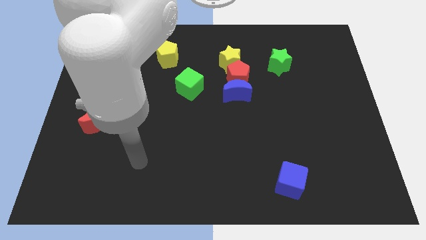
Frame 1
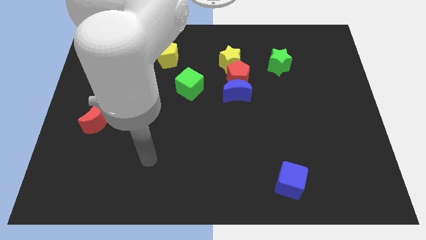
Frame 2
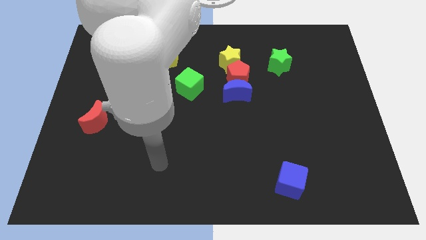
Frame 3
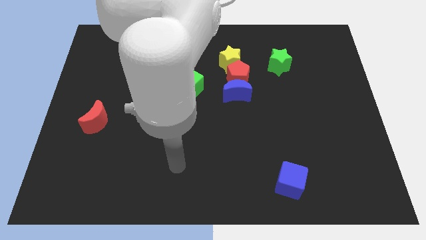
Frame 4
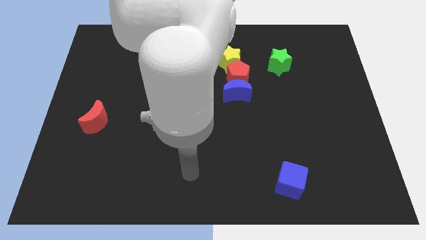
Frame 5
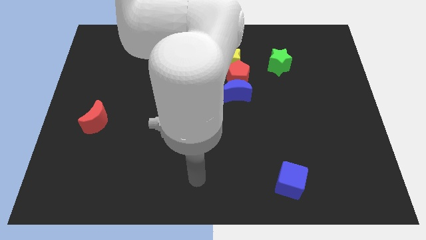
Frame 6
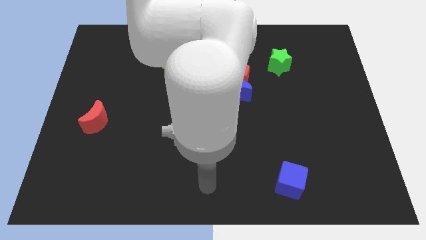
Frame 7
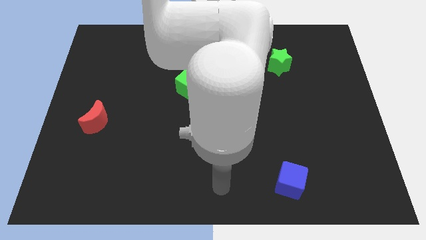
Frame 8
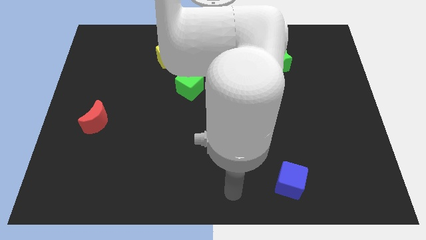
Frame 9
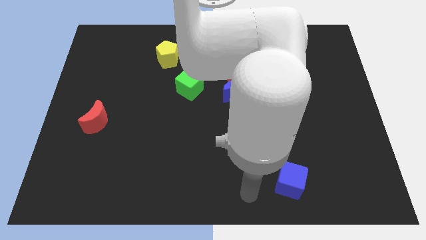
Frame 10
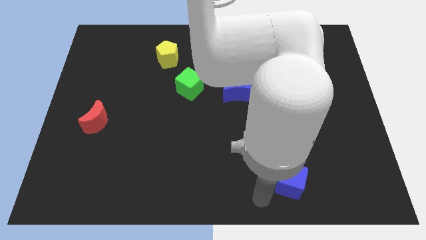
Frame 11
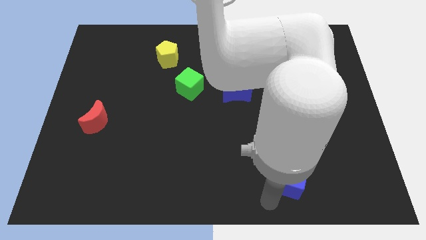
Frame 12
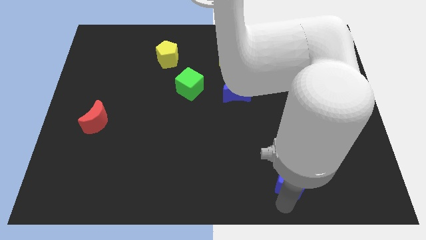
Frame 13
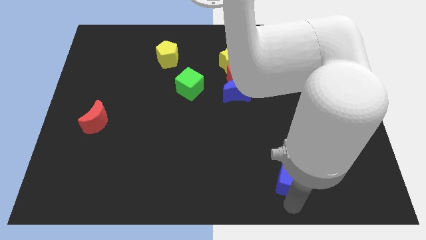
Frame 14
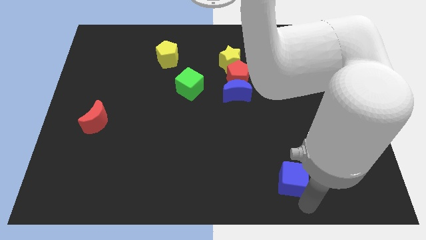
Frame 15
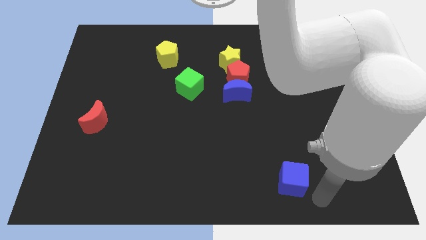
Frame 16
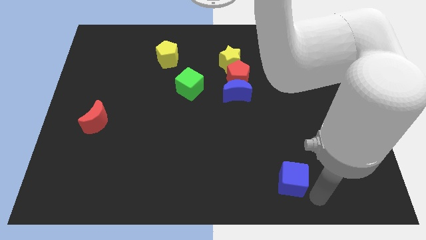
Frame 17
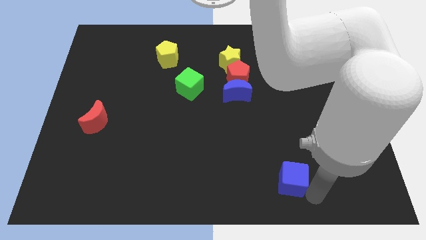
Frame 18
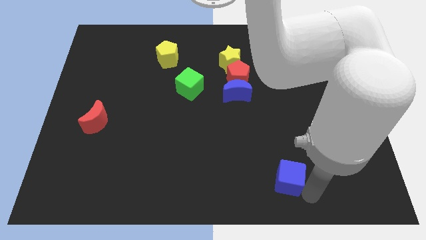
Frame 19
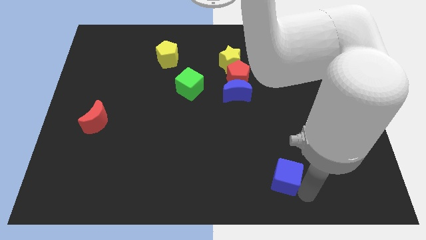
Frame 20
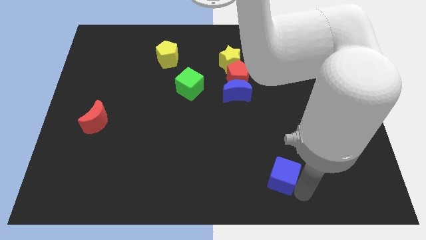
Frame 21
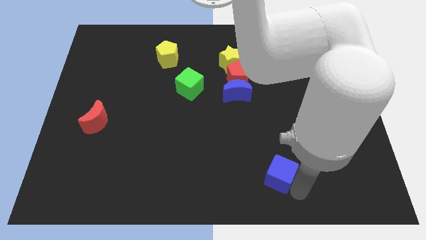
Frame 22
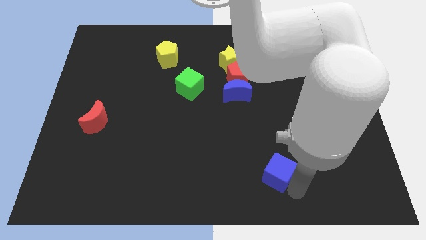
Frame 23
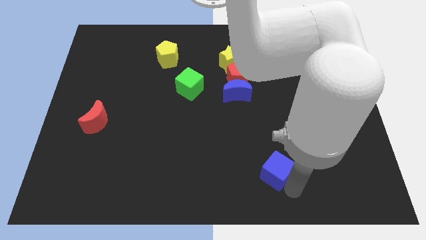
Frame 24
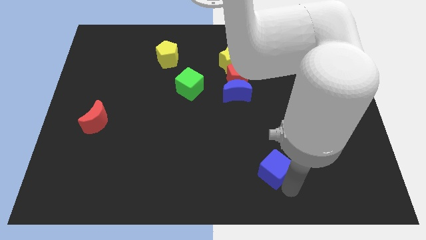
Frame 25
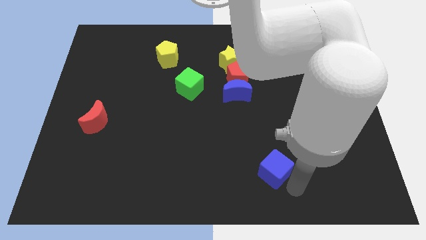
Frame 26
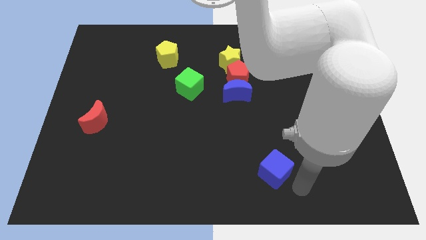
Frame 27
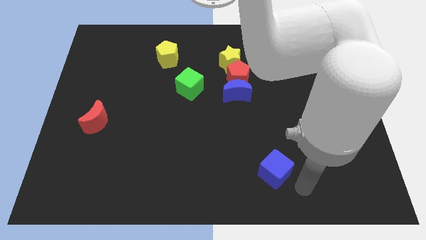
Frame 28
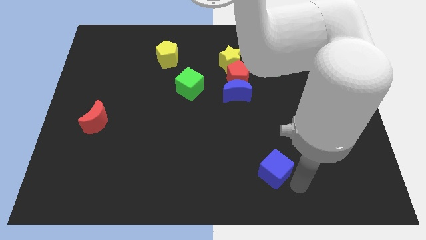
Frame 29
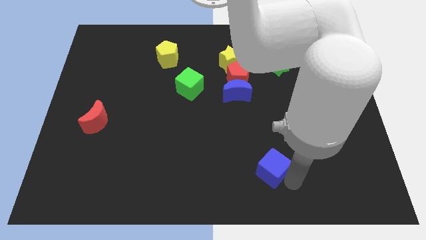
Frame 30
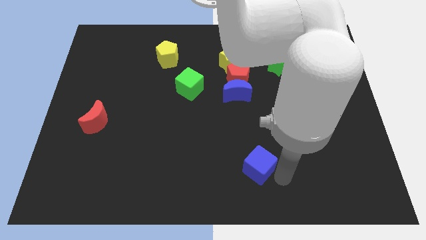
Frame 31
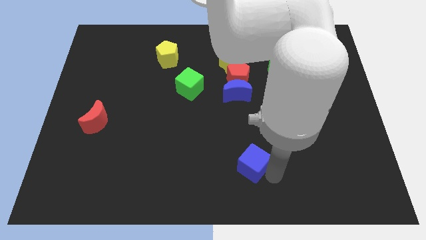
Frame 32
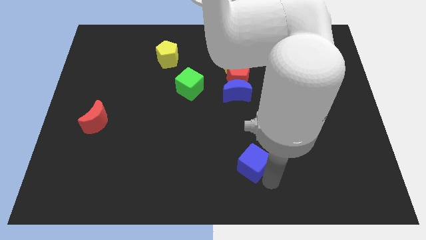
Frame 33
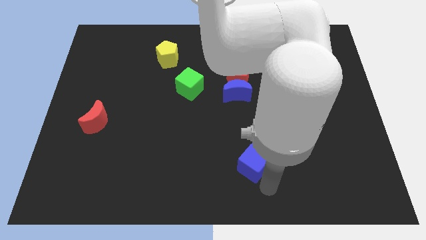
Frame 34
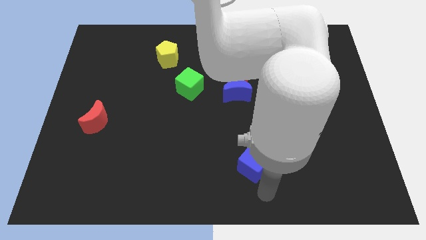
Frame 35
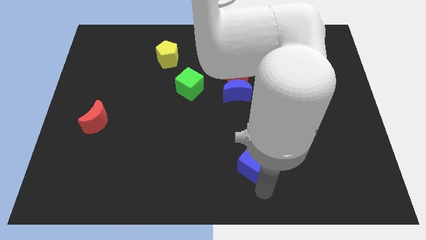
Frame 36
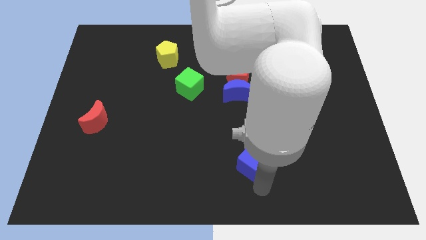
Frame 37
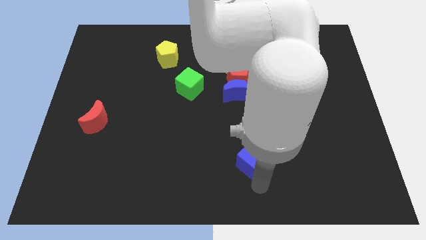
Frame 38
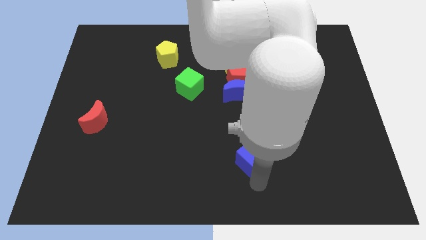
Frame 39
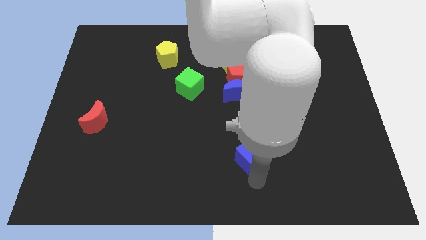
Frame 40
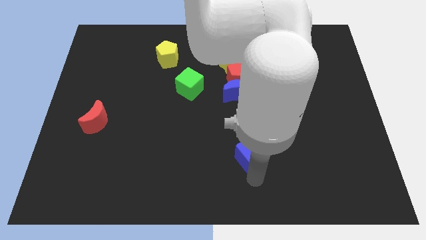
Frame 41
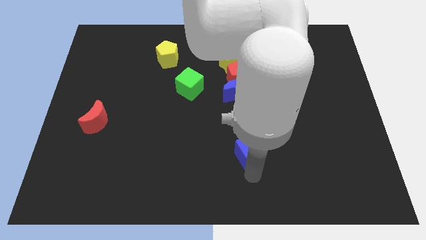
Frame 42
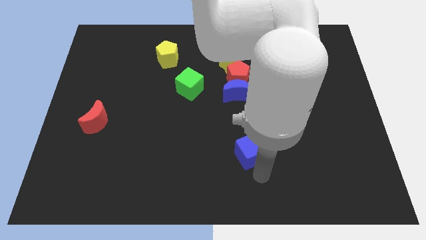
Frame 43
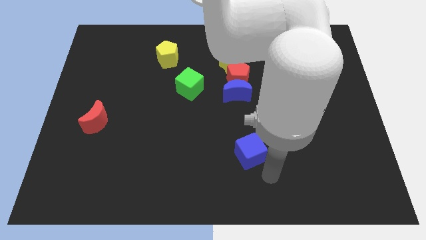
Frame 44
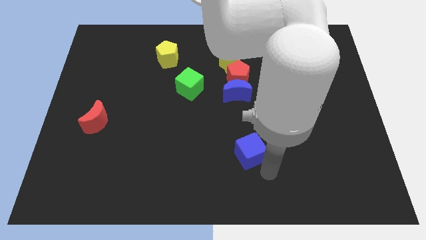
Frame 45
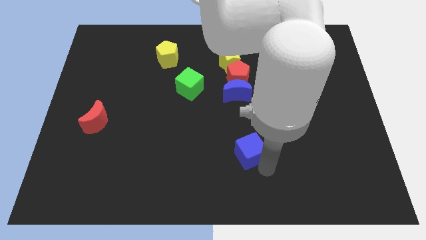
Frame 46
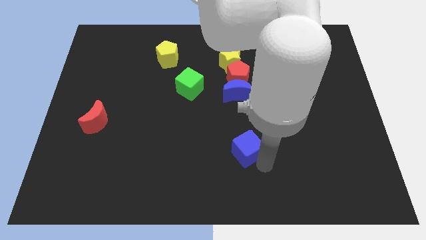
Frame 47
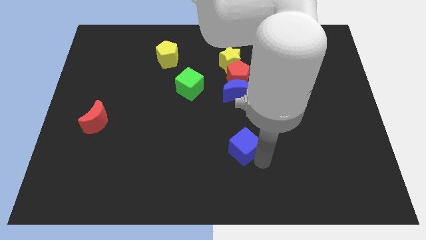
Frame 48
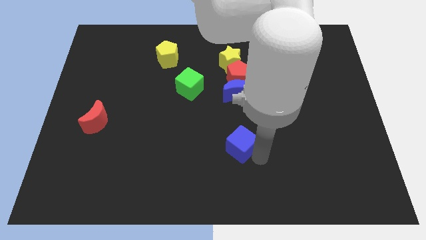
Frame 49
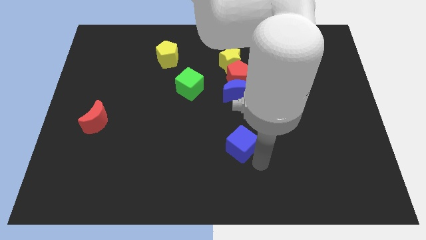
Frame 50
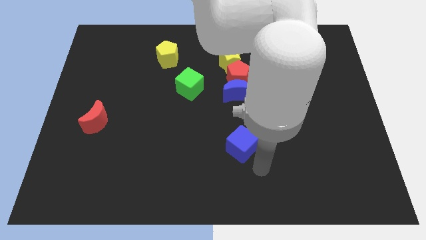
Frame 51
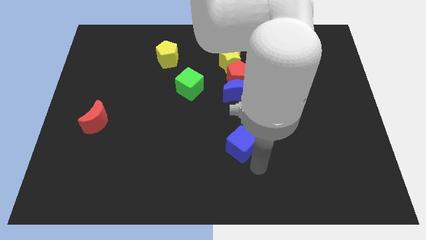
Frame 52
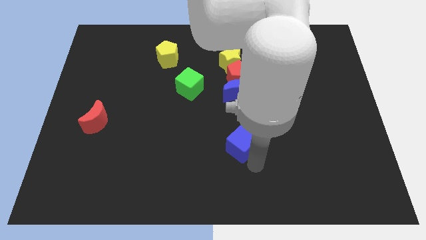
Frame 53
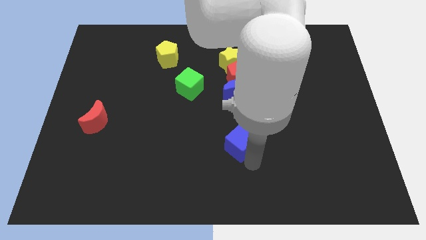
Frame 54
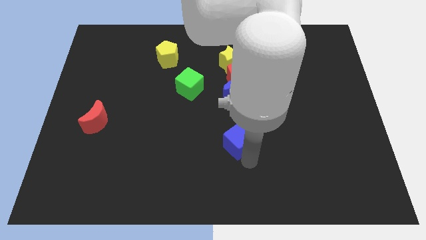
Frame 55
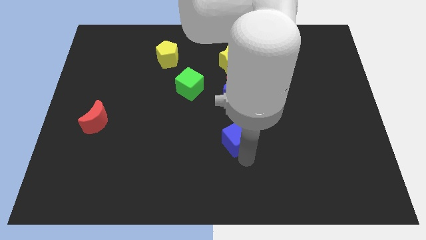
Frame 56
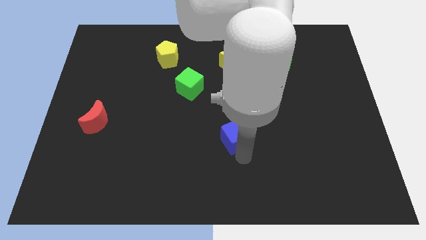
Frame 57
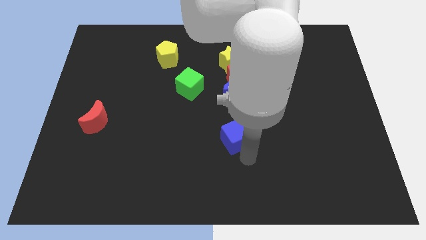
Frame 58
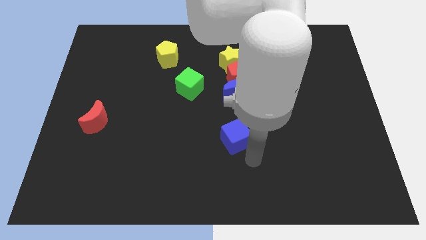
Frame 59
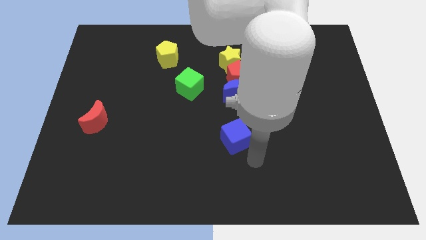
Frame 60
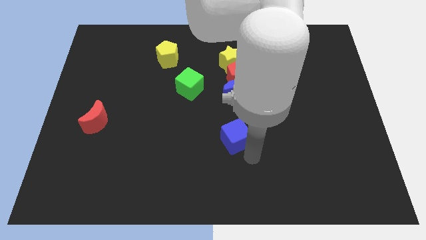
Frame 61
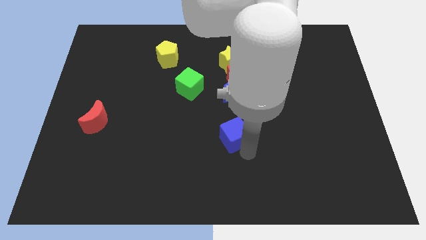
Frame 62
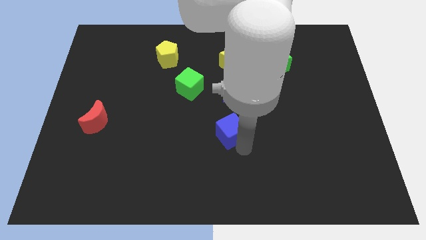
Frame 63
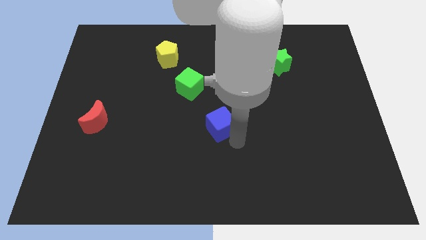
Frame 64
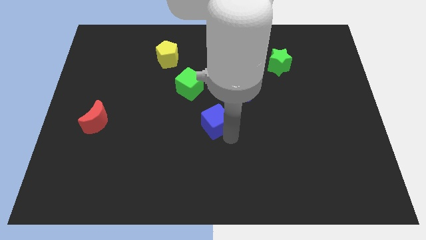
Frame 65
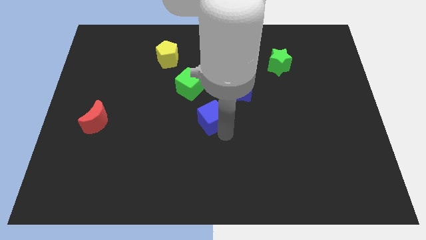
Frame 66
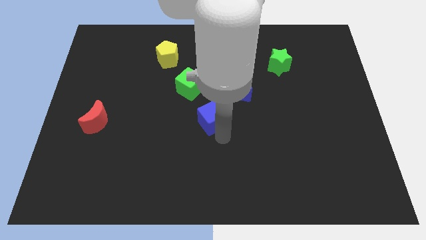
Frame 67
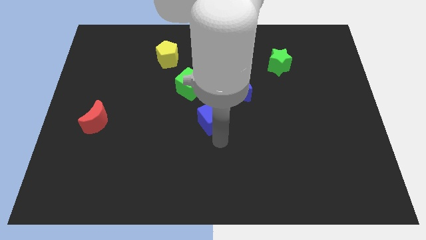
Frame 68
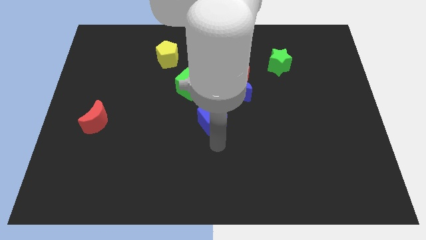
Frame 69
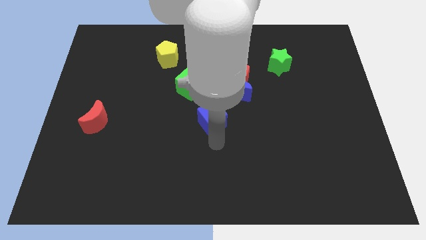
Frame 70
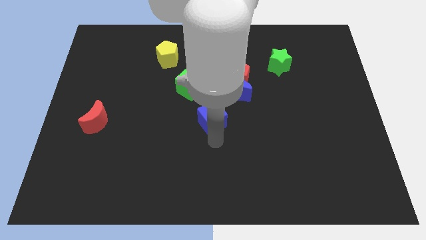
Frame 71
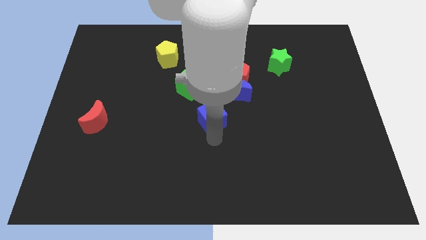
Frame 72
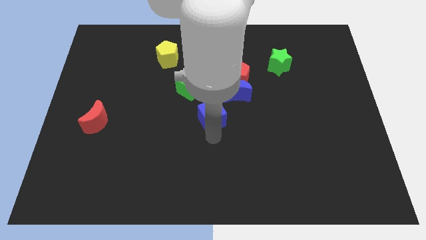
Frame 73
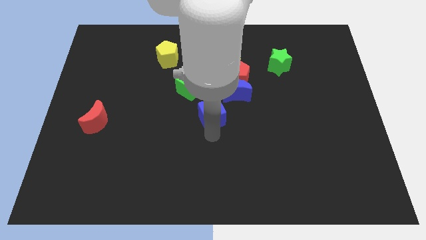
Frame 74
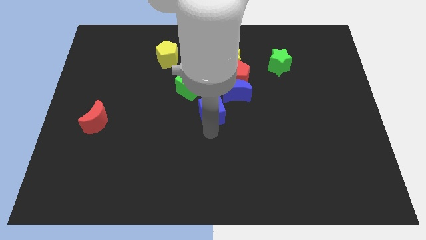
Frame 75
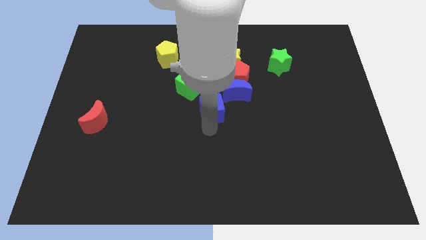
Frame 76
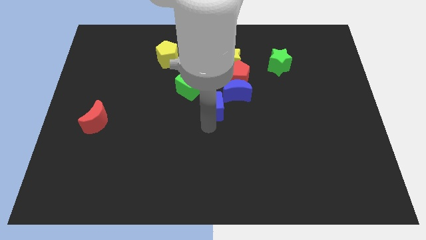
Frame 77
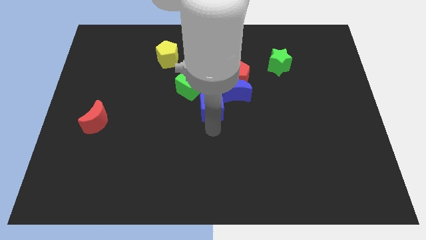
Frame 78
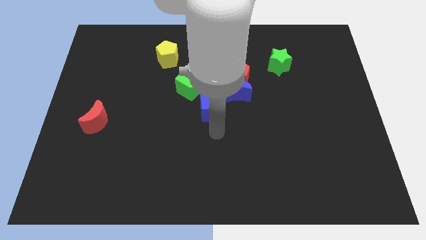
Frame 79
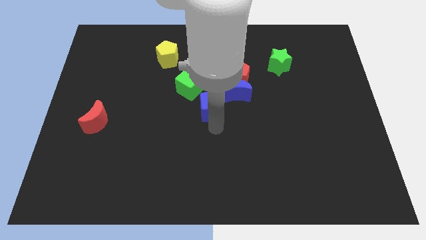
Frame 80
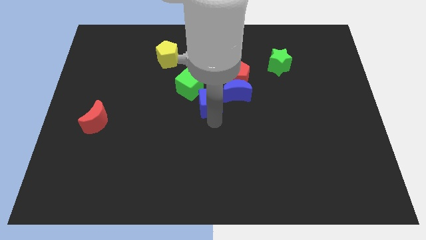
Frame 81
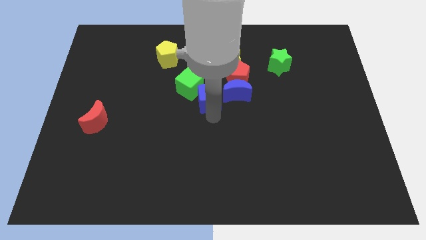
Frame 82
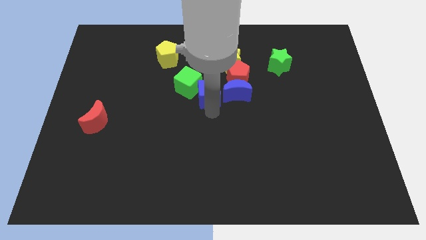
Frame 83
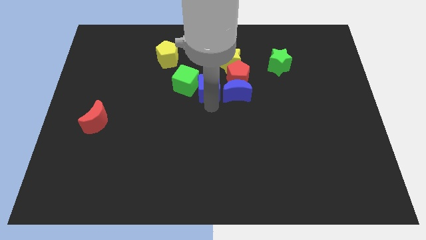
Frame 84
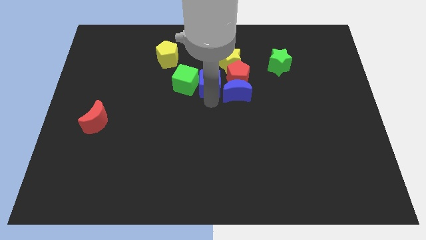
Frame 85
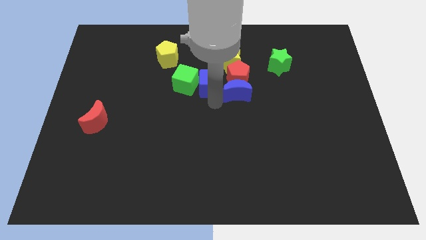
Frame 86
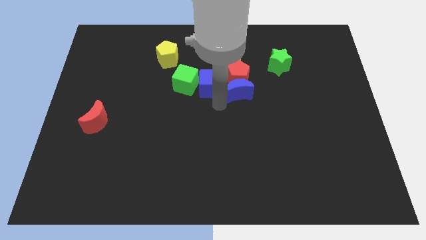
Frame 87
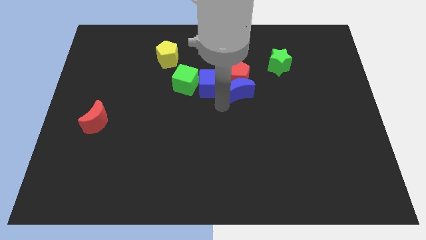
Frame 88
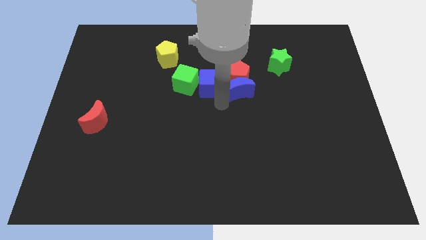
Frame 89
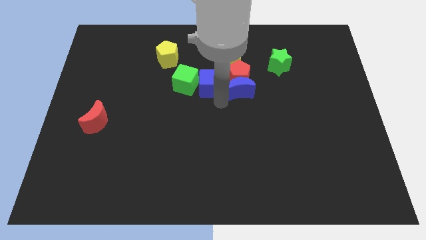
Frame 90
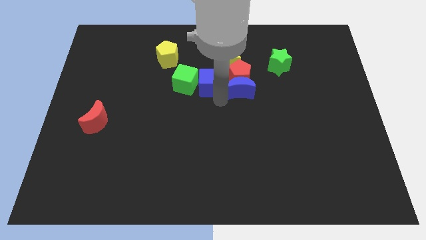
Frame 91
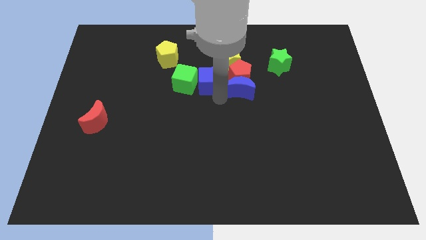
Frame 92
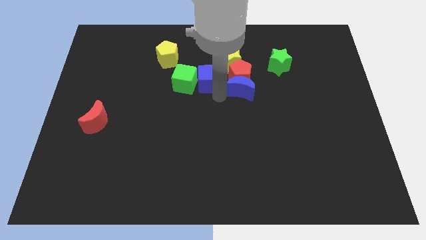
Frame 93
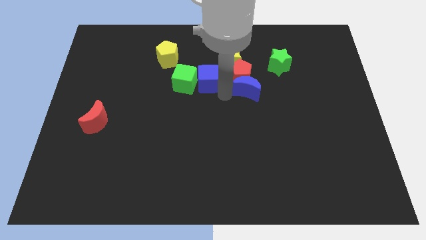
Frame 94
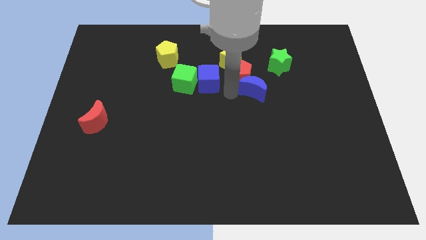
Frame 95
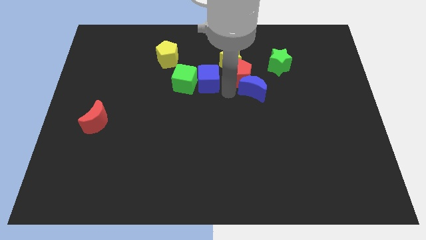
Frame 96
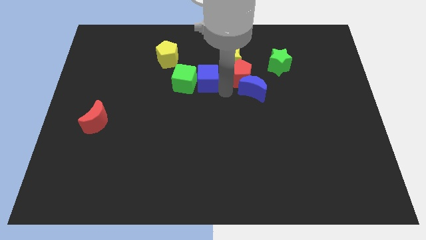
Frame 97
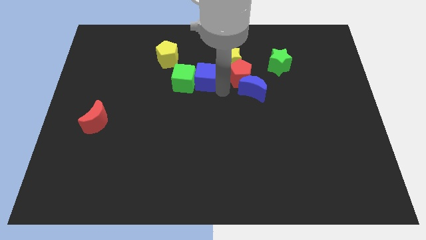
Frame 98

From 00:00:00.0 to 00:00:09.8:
move the blue cube diagonally down and to the right of the yellow pentagon
